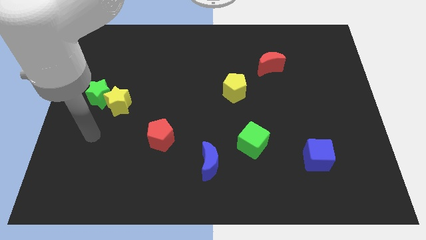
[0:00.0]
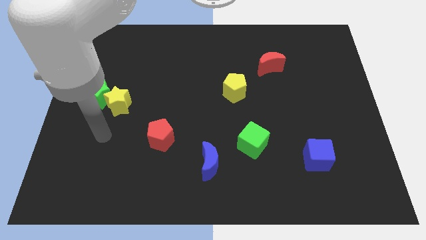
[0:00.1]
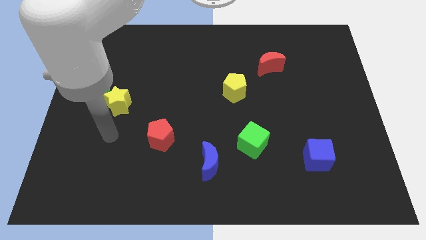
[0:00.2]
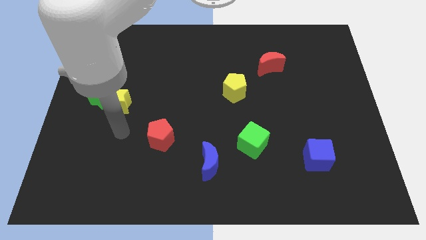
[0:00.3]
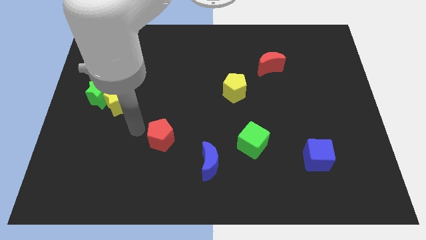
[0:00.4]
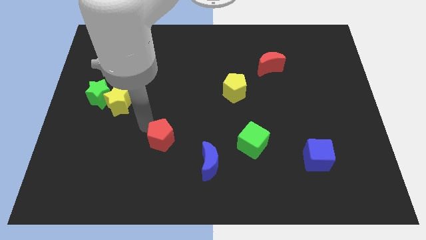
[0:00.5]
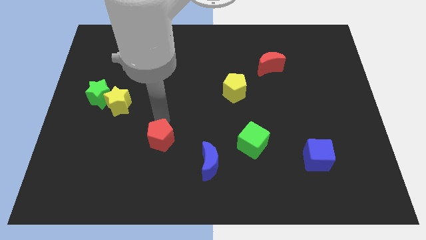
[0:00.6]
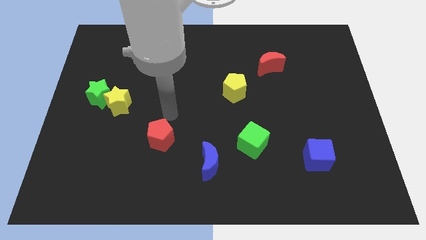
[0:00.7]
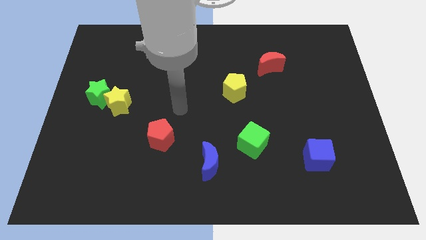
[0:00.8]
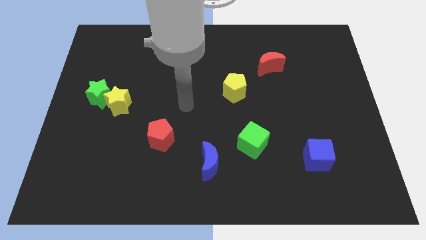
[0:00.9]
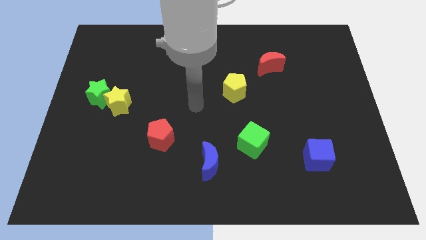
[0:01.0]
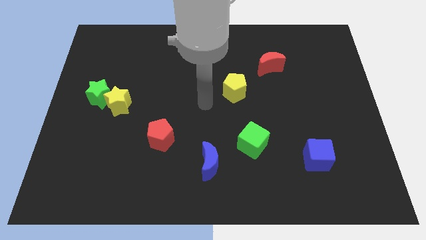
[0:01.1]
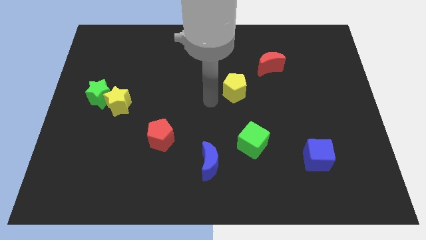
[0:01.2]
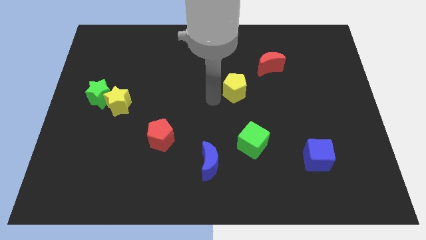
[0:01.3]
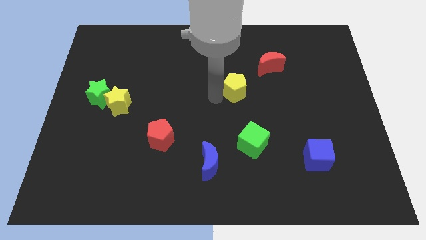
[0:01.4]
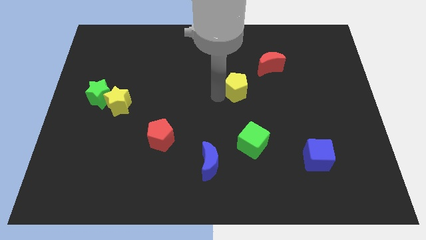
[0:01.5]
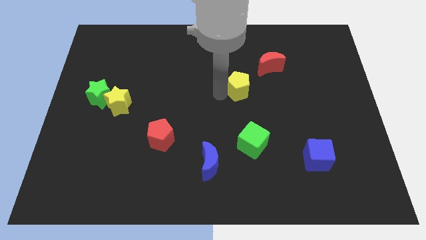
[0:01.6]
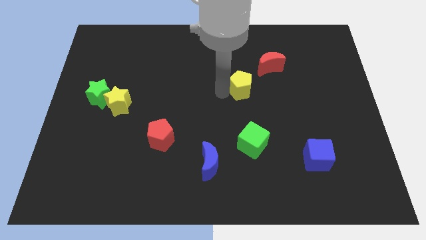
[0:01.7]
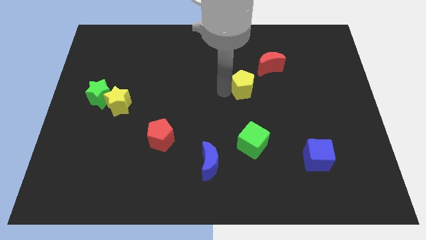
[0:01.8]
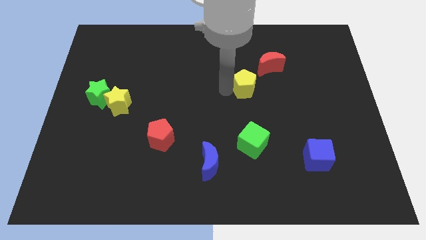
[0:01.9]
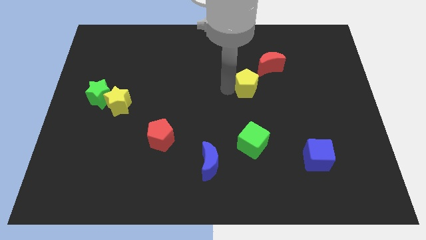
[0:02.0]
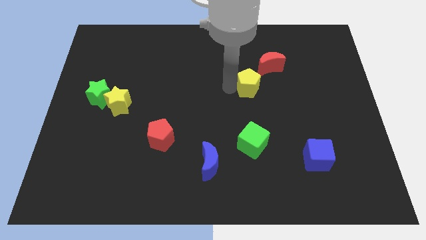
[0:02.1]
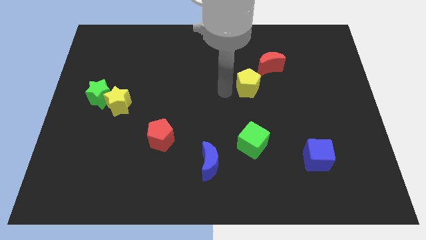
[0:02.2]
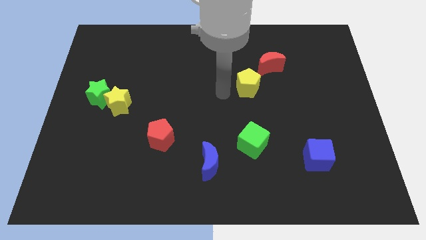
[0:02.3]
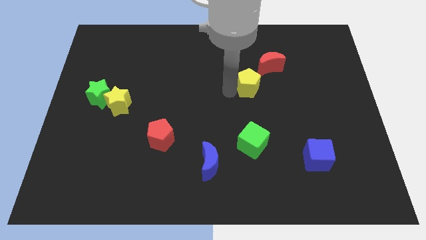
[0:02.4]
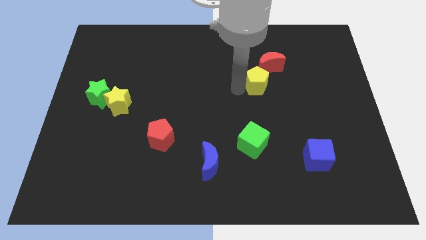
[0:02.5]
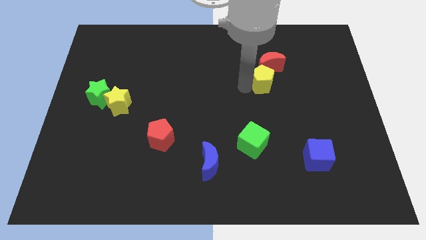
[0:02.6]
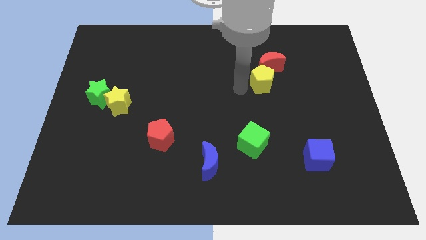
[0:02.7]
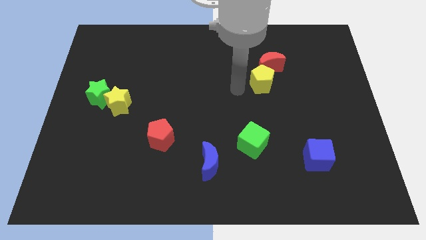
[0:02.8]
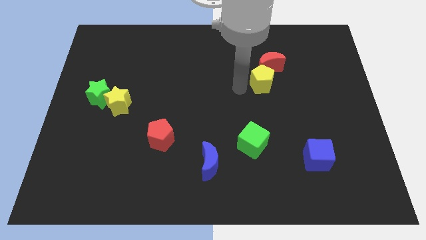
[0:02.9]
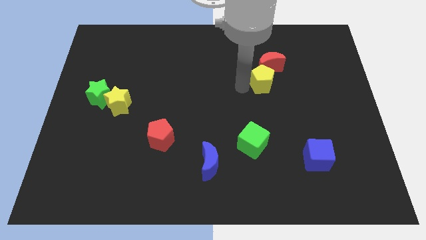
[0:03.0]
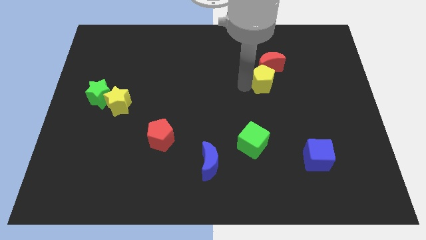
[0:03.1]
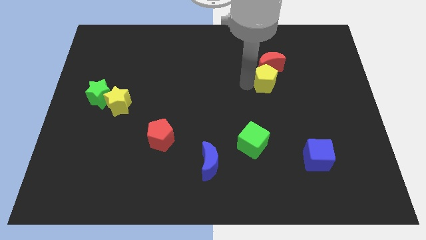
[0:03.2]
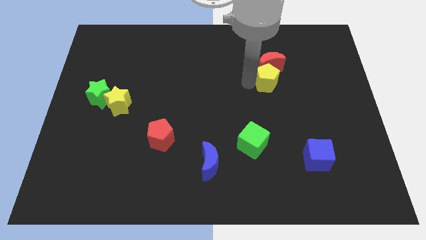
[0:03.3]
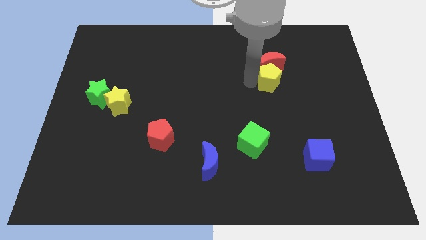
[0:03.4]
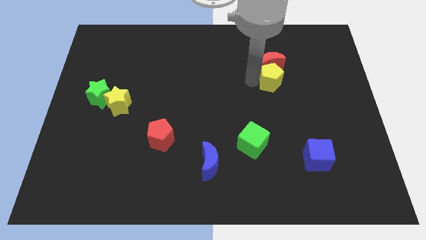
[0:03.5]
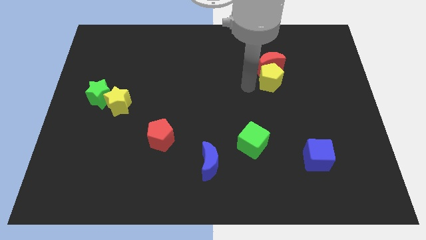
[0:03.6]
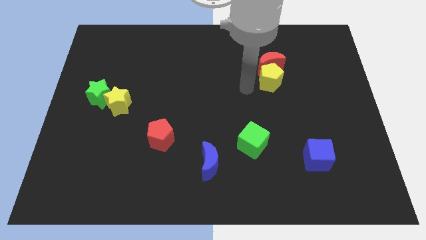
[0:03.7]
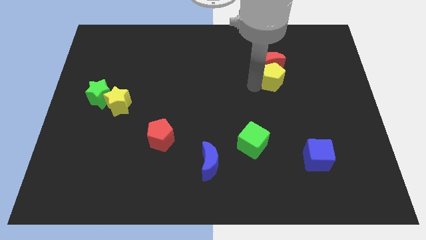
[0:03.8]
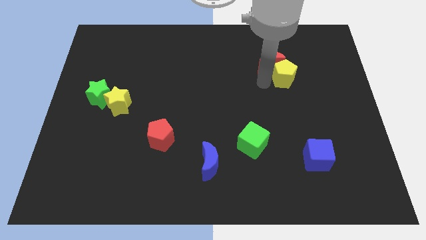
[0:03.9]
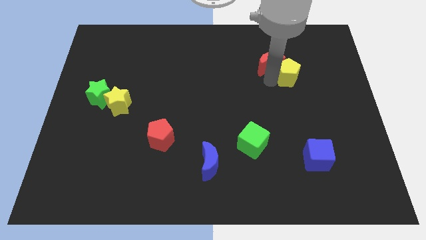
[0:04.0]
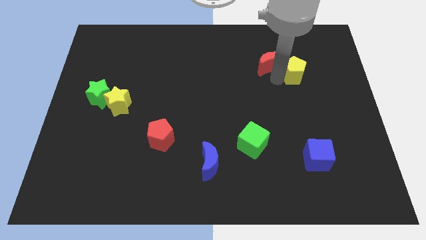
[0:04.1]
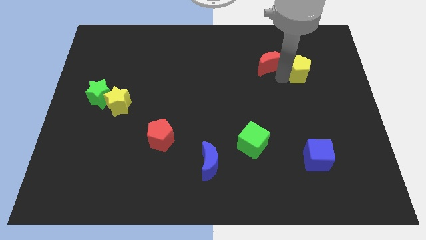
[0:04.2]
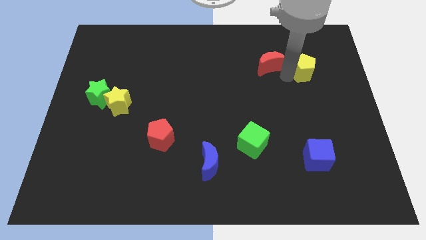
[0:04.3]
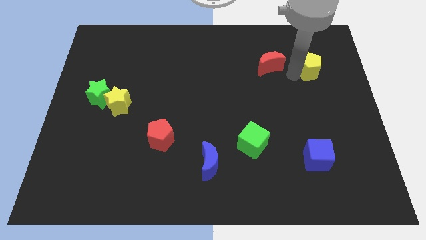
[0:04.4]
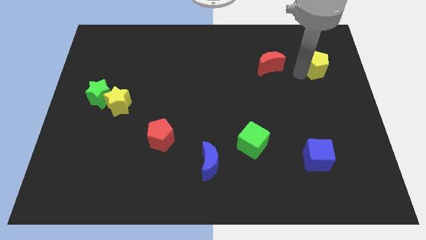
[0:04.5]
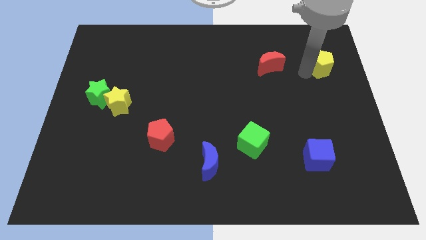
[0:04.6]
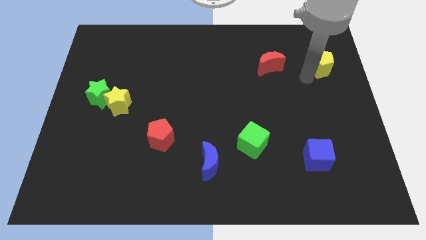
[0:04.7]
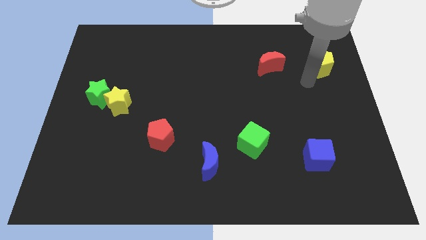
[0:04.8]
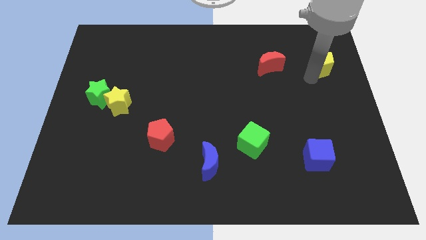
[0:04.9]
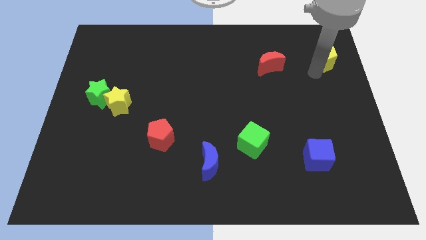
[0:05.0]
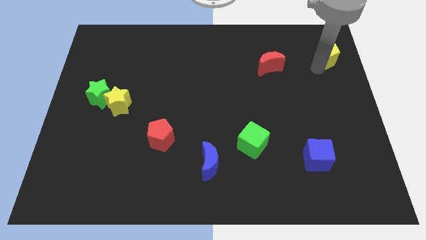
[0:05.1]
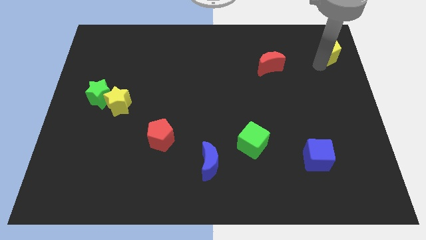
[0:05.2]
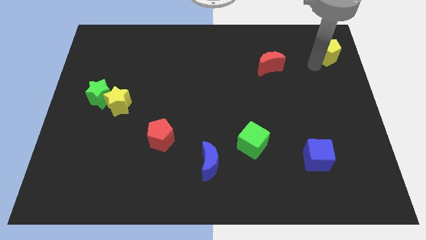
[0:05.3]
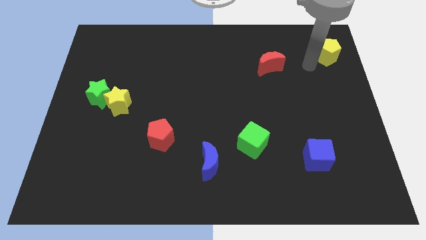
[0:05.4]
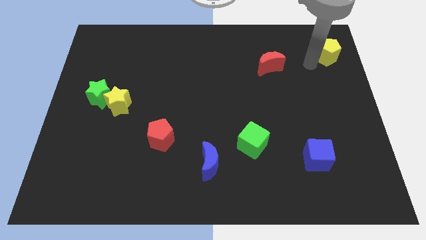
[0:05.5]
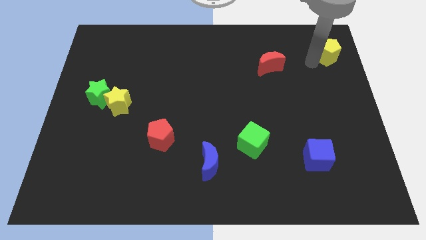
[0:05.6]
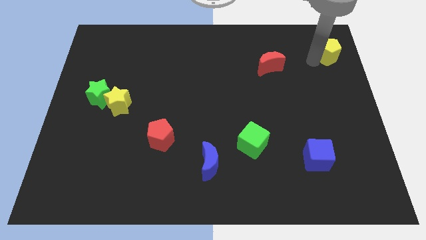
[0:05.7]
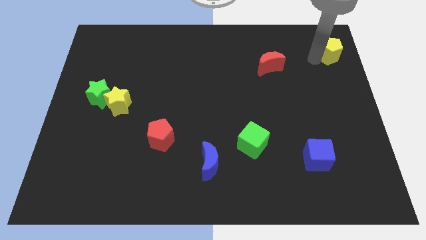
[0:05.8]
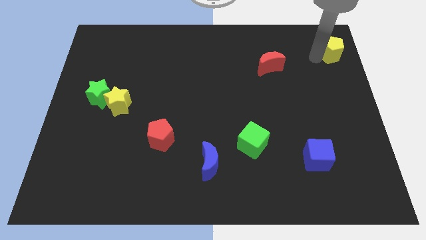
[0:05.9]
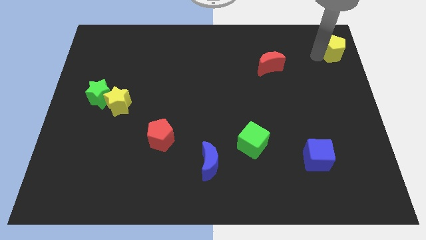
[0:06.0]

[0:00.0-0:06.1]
push the yellow pentagon to the top right corner

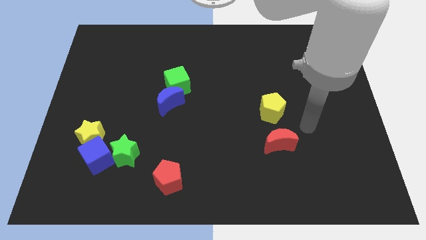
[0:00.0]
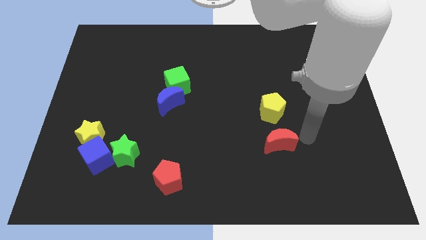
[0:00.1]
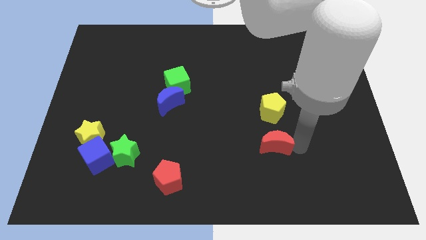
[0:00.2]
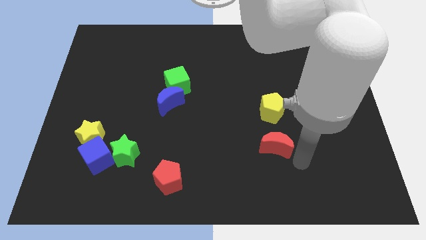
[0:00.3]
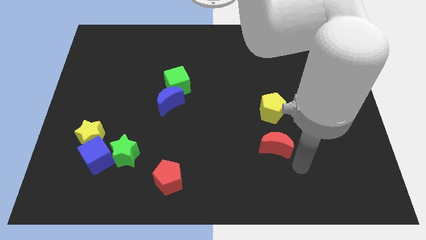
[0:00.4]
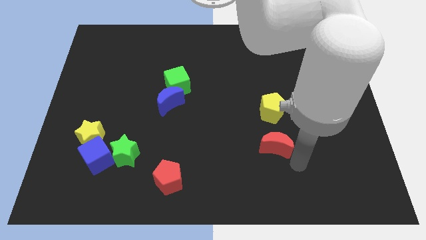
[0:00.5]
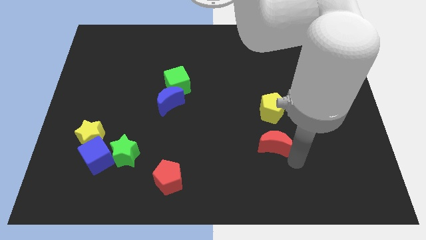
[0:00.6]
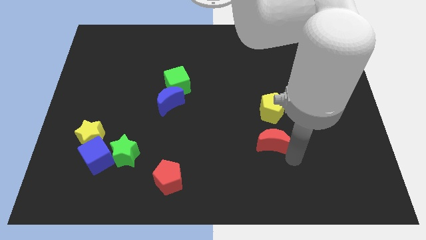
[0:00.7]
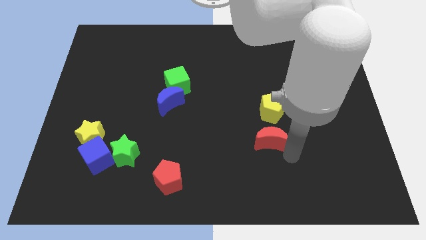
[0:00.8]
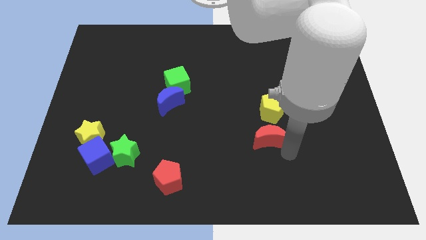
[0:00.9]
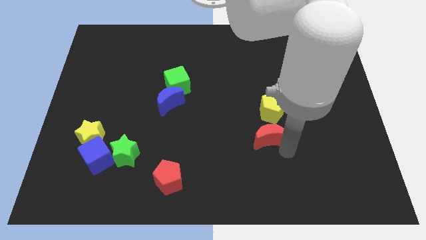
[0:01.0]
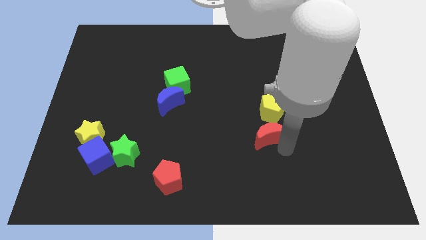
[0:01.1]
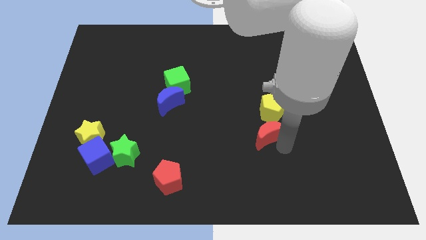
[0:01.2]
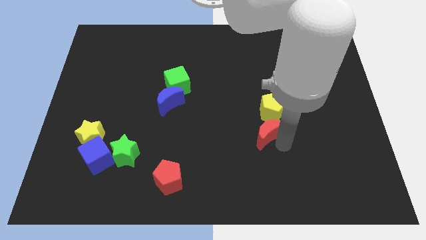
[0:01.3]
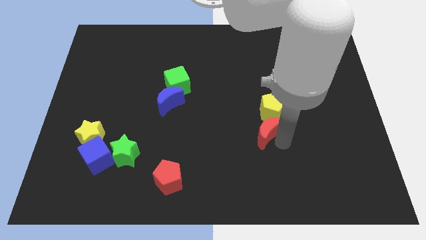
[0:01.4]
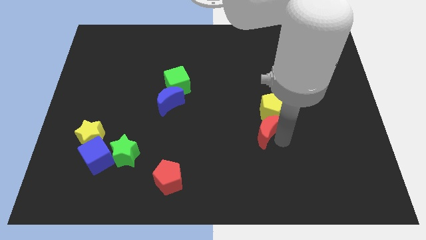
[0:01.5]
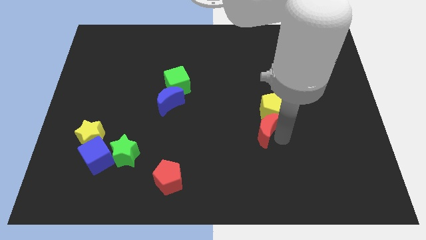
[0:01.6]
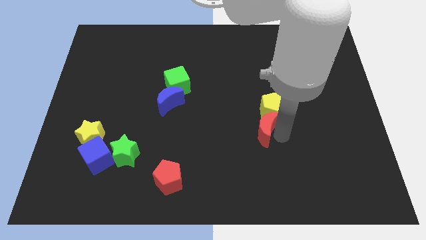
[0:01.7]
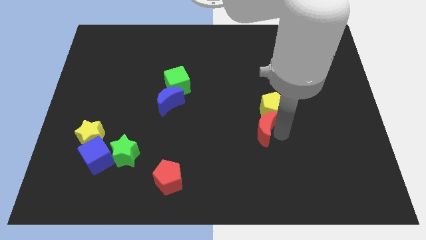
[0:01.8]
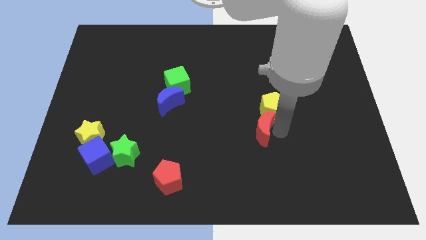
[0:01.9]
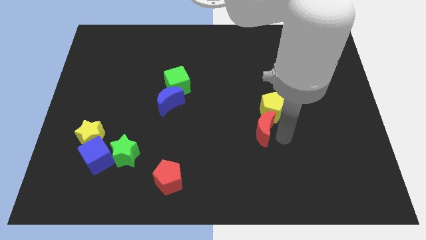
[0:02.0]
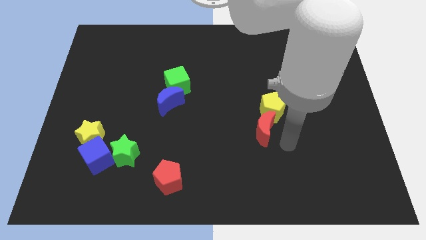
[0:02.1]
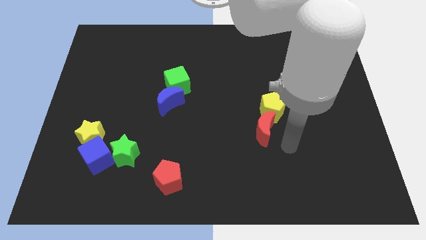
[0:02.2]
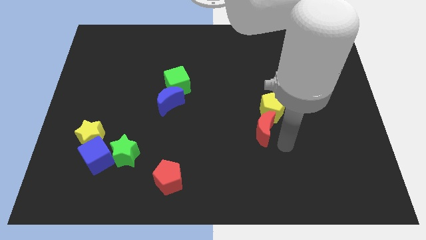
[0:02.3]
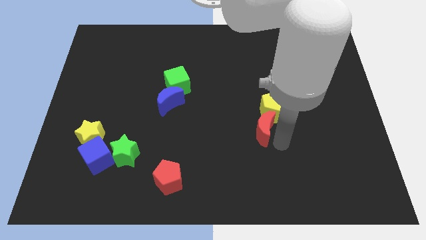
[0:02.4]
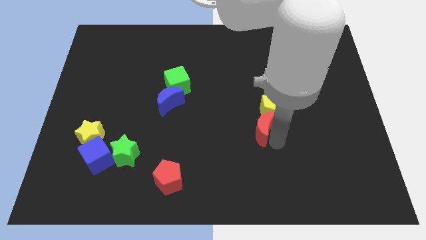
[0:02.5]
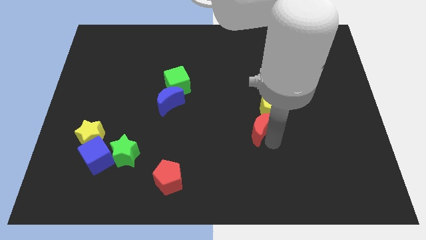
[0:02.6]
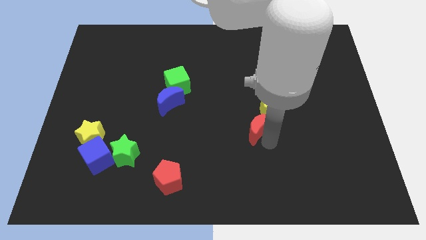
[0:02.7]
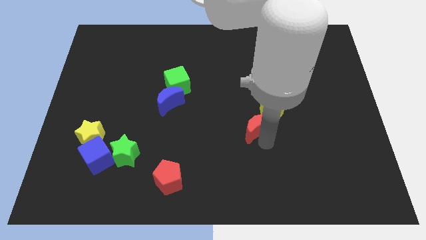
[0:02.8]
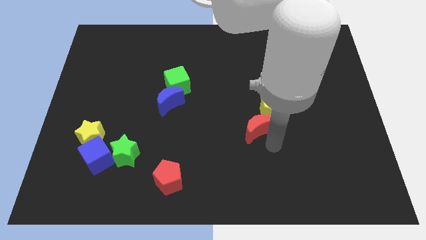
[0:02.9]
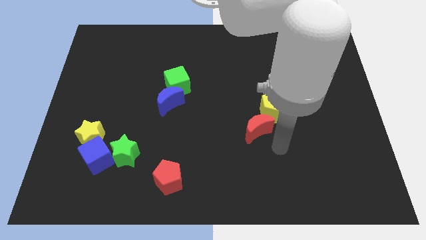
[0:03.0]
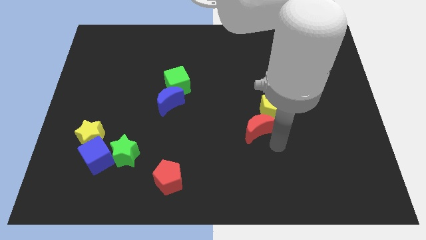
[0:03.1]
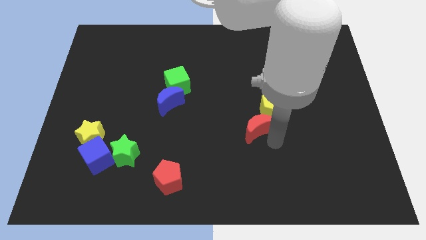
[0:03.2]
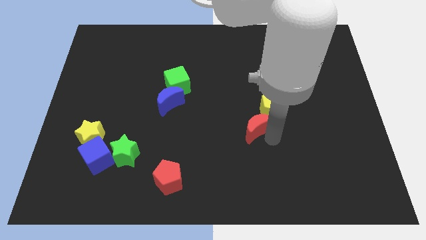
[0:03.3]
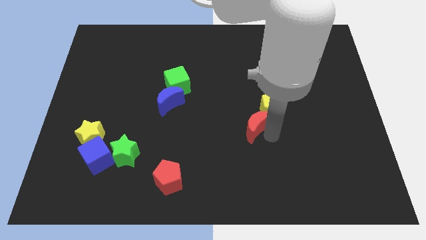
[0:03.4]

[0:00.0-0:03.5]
put the red moon to the middle of the board
